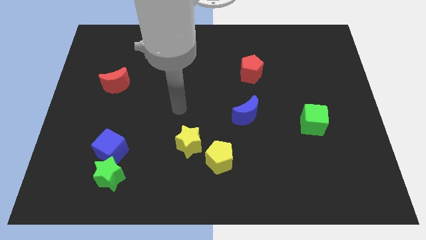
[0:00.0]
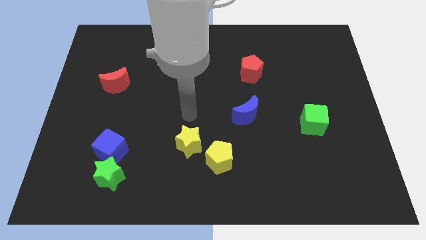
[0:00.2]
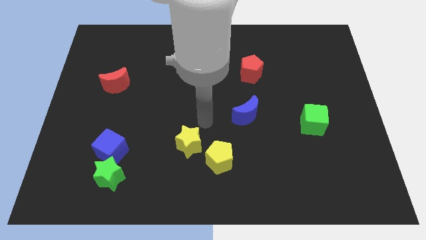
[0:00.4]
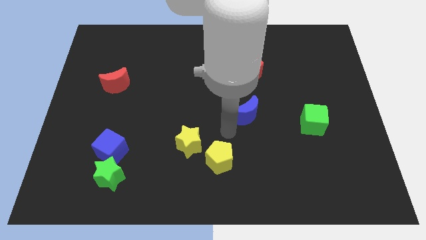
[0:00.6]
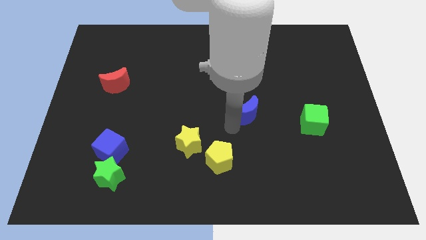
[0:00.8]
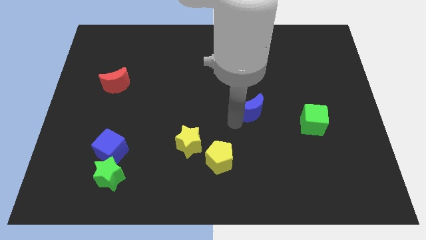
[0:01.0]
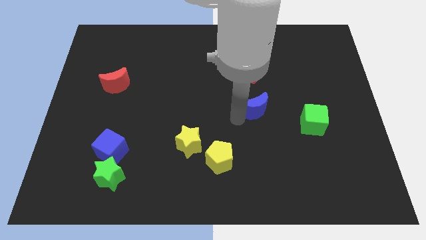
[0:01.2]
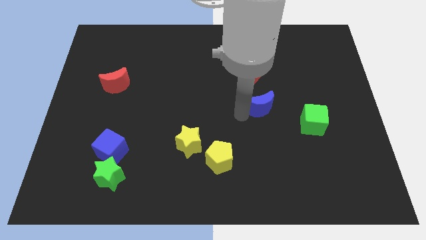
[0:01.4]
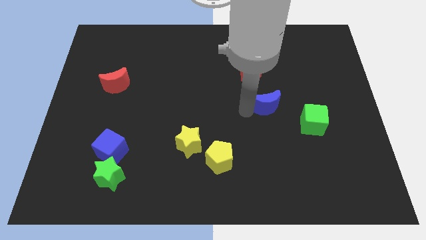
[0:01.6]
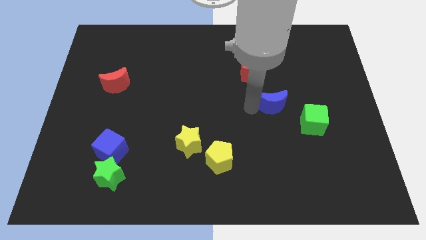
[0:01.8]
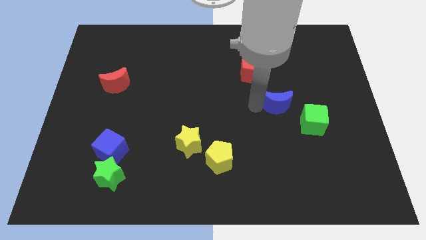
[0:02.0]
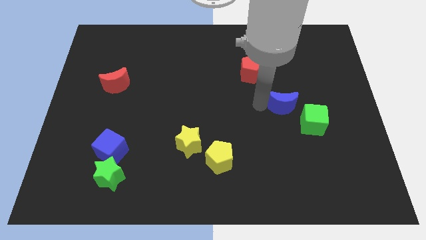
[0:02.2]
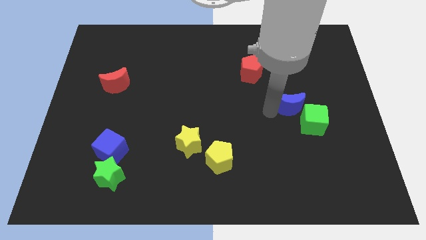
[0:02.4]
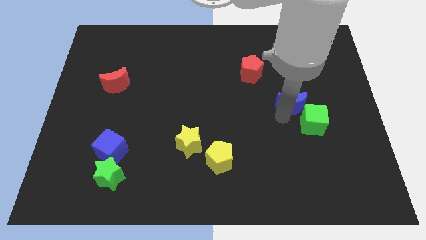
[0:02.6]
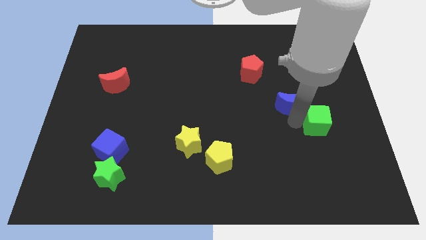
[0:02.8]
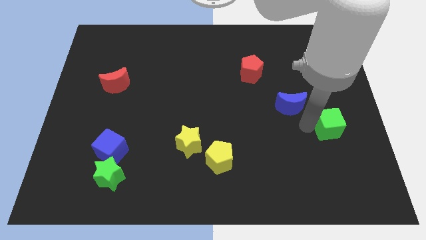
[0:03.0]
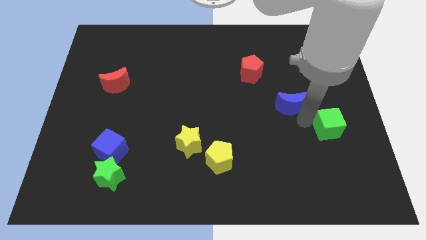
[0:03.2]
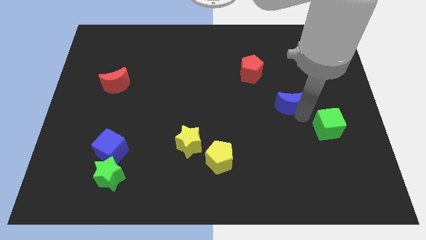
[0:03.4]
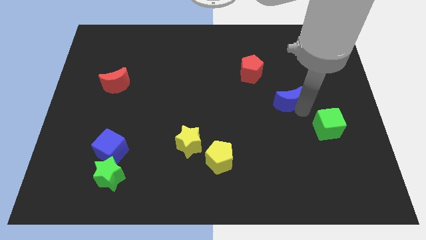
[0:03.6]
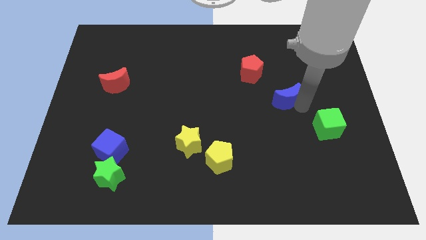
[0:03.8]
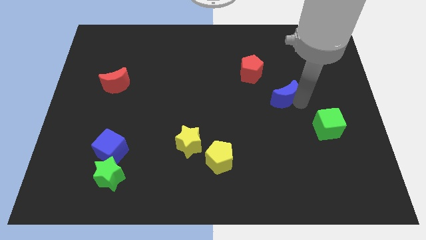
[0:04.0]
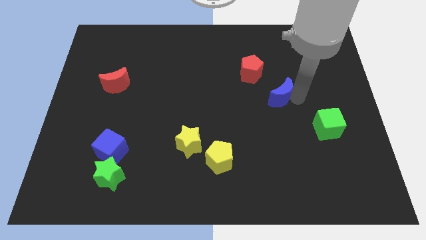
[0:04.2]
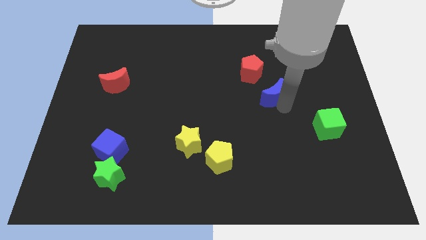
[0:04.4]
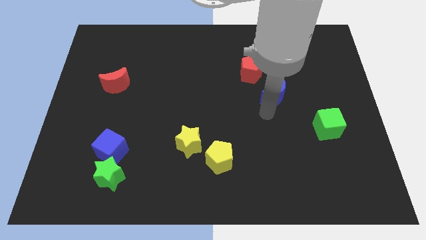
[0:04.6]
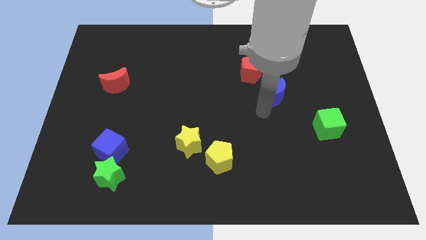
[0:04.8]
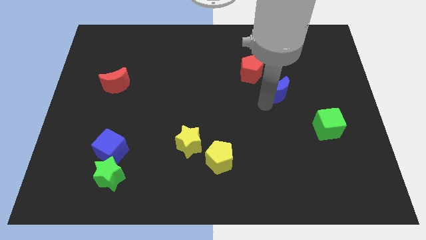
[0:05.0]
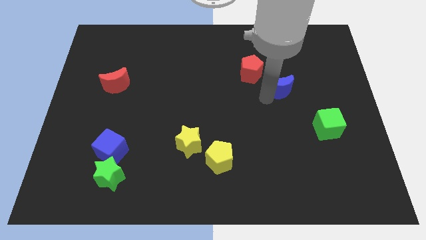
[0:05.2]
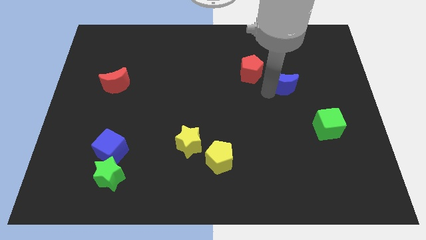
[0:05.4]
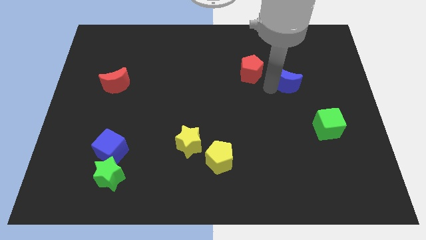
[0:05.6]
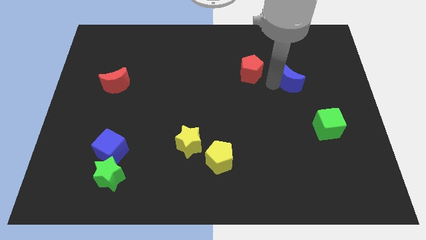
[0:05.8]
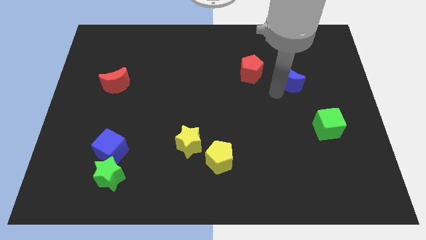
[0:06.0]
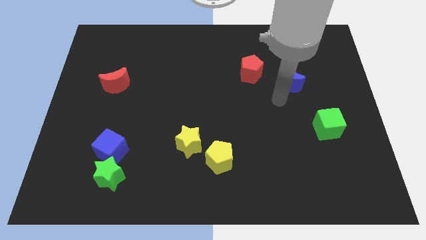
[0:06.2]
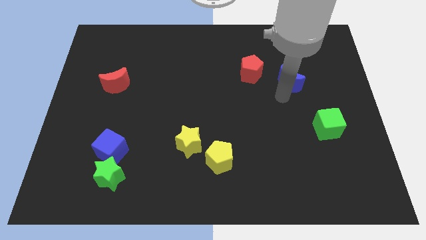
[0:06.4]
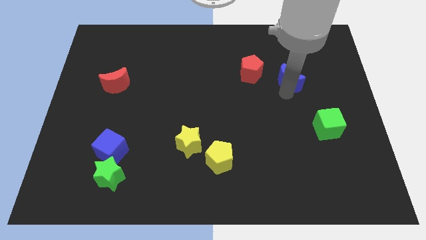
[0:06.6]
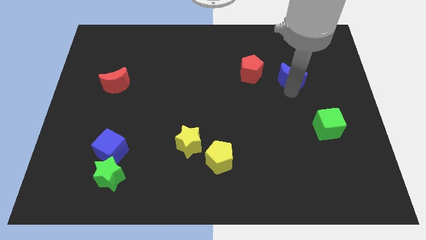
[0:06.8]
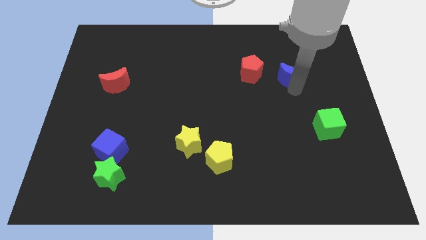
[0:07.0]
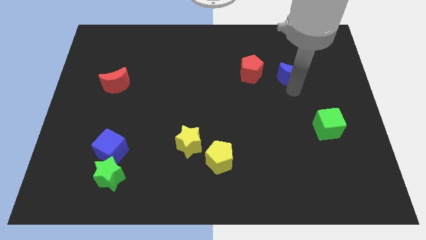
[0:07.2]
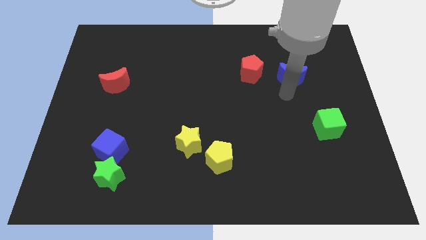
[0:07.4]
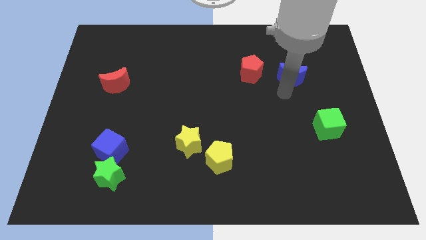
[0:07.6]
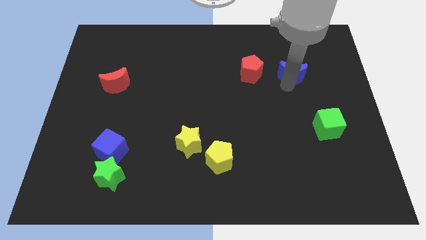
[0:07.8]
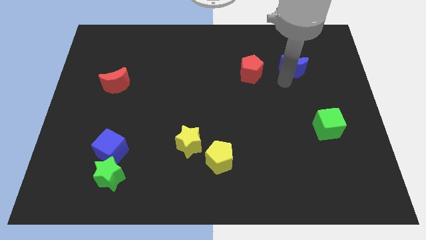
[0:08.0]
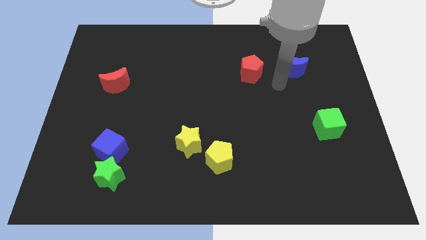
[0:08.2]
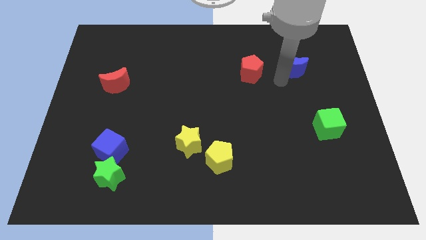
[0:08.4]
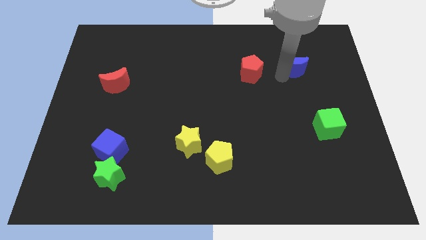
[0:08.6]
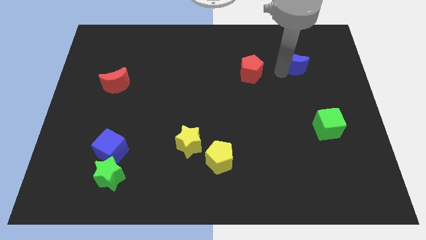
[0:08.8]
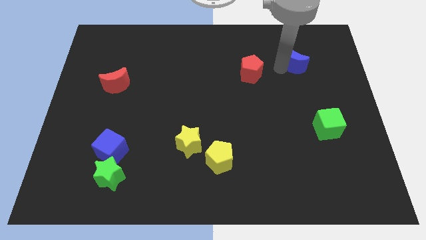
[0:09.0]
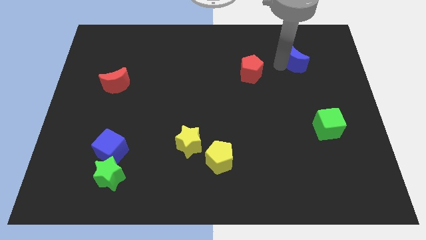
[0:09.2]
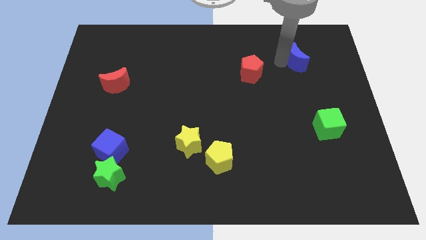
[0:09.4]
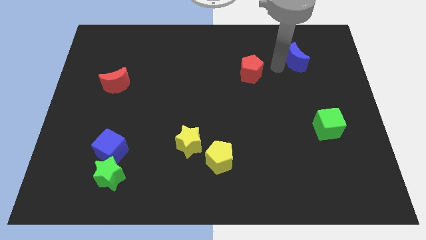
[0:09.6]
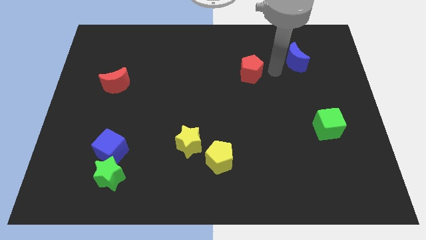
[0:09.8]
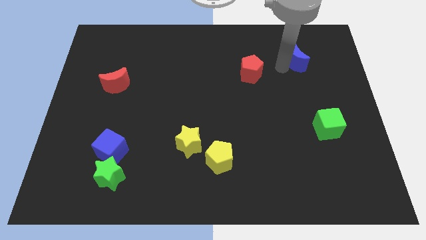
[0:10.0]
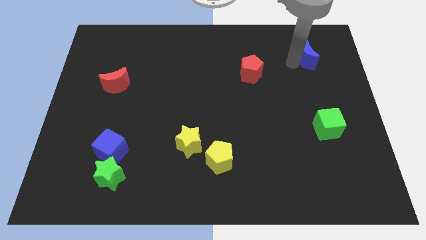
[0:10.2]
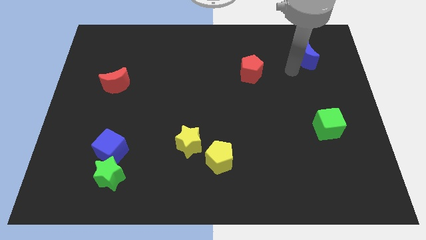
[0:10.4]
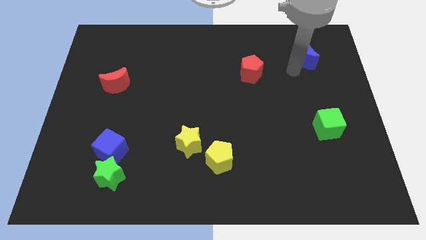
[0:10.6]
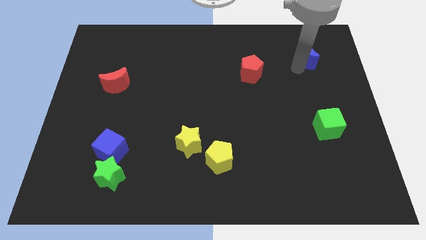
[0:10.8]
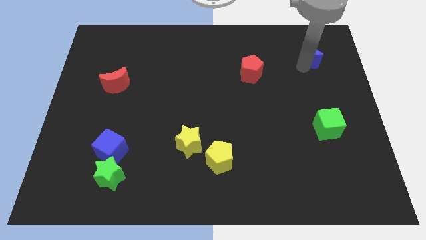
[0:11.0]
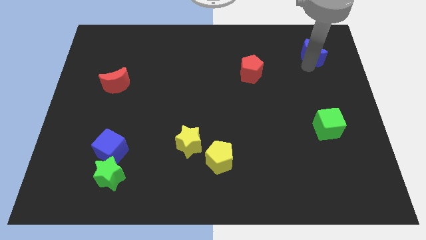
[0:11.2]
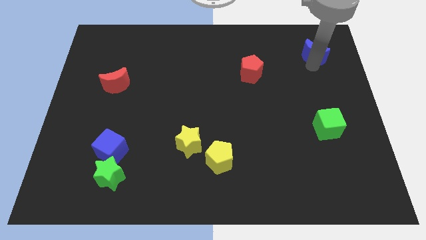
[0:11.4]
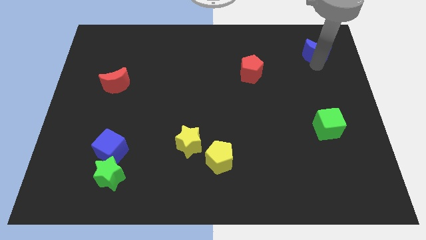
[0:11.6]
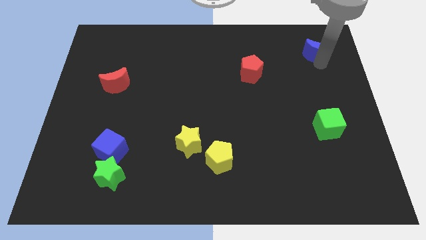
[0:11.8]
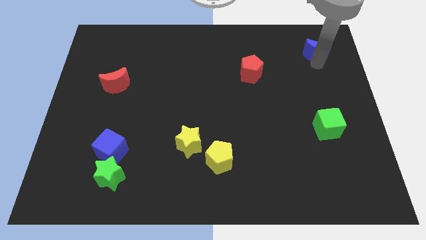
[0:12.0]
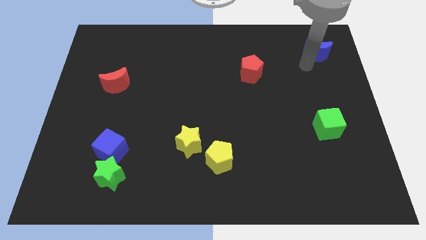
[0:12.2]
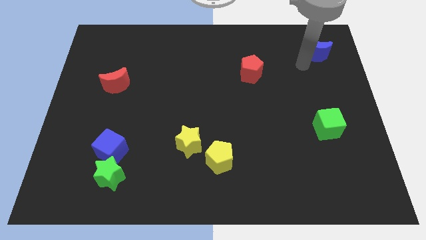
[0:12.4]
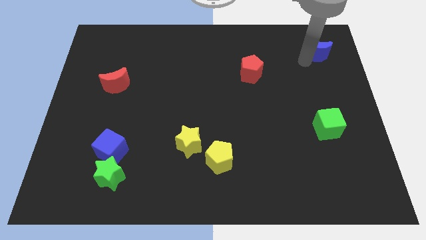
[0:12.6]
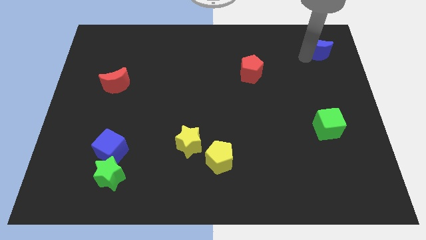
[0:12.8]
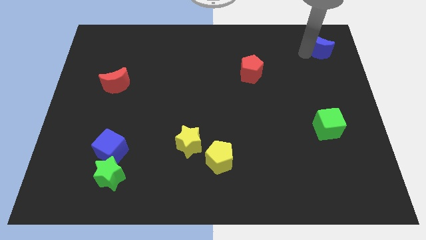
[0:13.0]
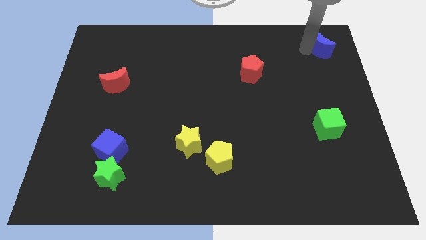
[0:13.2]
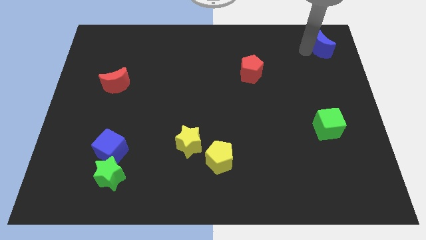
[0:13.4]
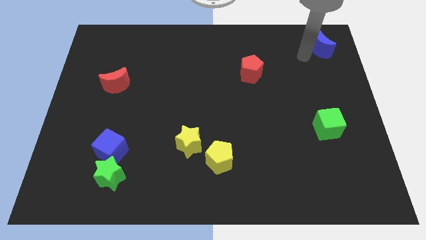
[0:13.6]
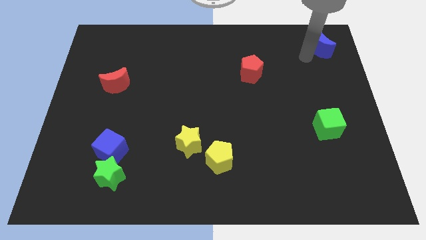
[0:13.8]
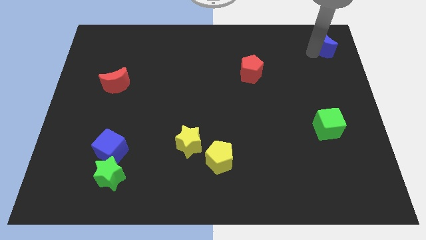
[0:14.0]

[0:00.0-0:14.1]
put the blue moon to the top right
